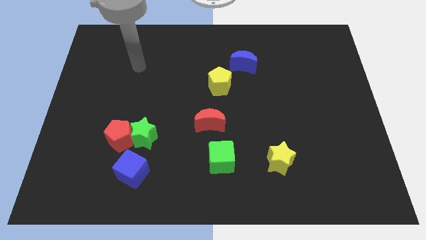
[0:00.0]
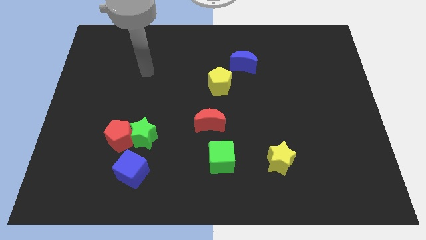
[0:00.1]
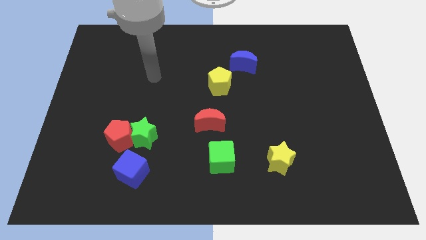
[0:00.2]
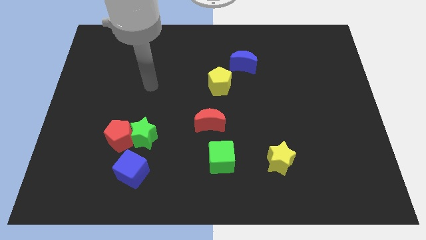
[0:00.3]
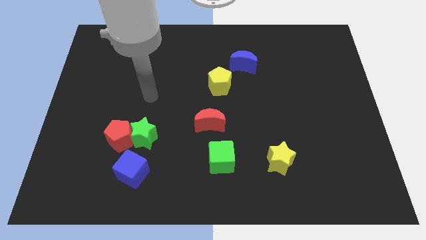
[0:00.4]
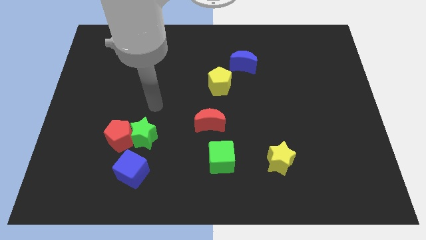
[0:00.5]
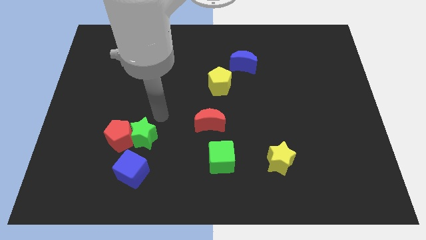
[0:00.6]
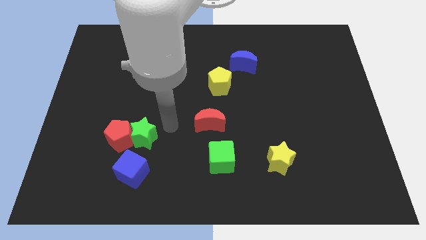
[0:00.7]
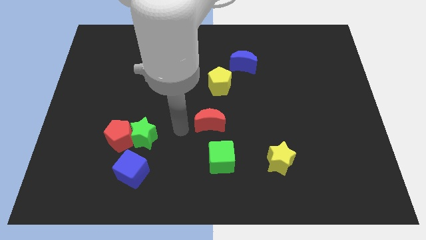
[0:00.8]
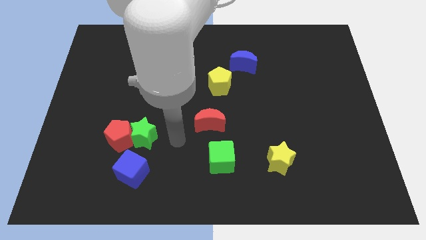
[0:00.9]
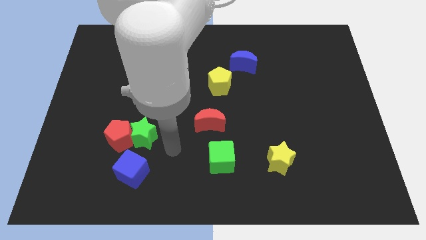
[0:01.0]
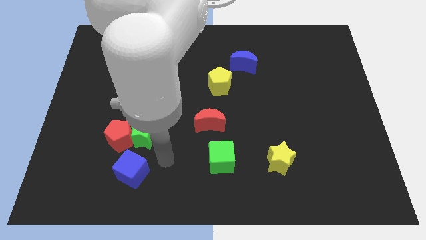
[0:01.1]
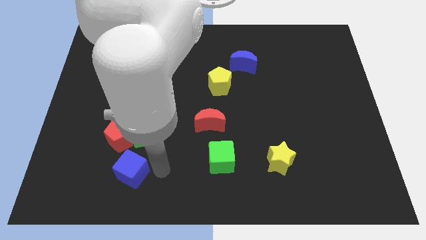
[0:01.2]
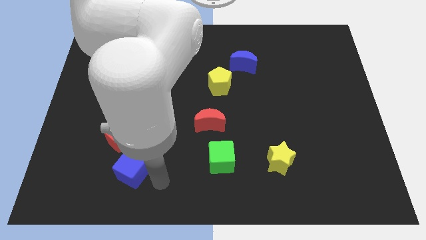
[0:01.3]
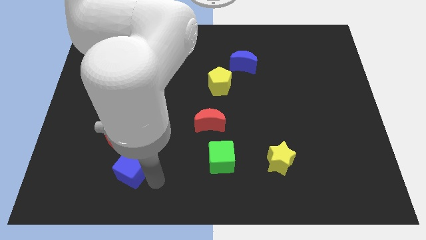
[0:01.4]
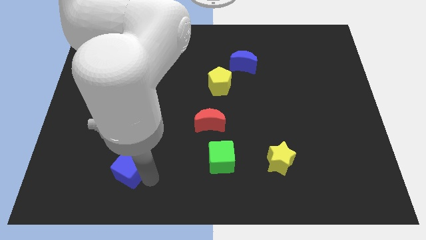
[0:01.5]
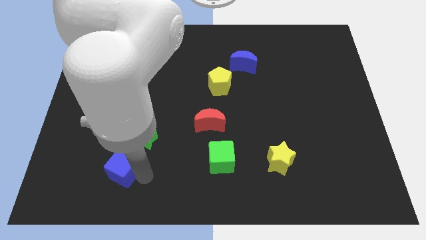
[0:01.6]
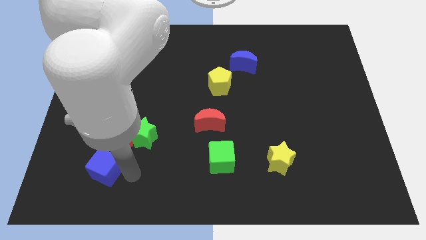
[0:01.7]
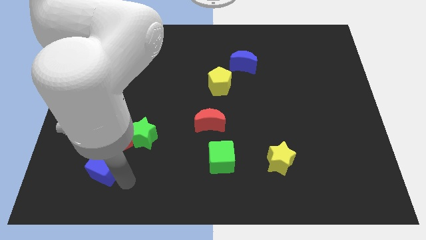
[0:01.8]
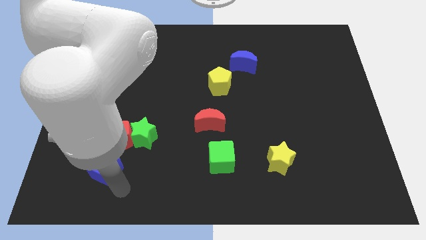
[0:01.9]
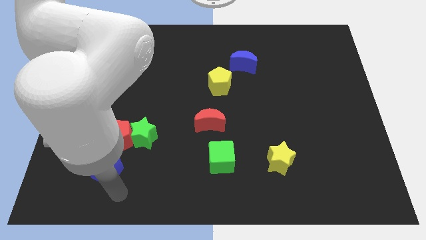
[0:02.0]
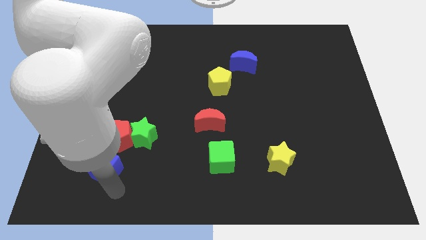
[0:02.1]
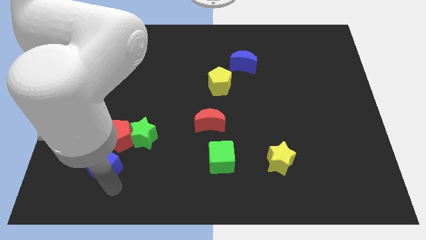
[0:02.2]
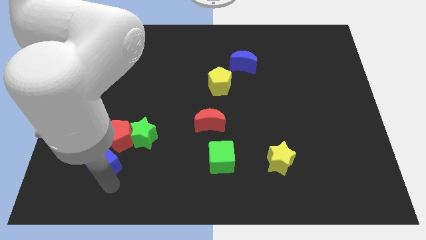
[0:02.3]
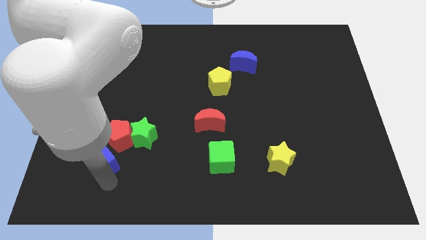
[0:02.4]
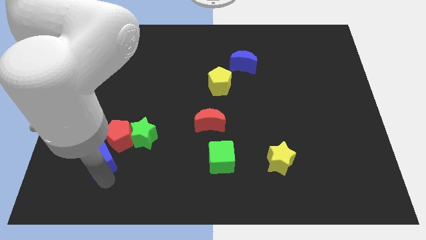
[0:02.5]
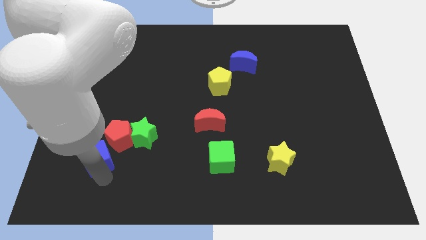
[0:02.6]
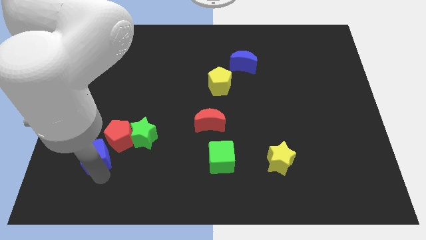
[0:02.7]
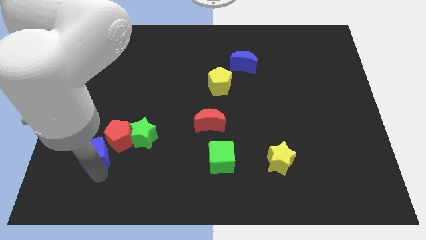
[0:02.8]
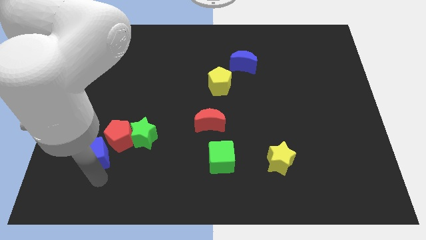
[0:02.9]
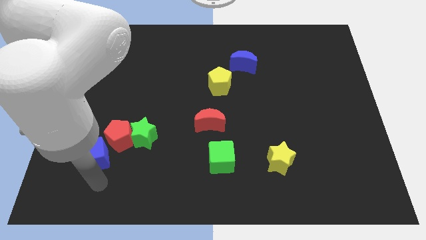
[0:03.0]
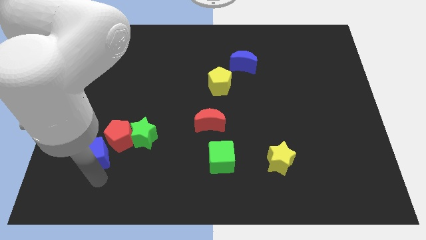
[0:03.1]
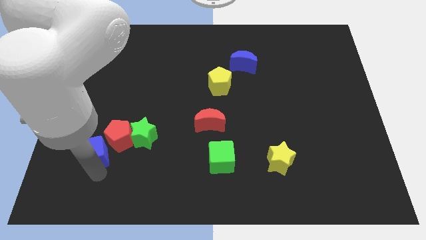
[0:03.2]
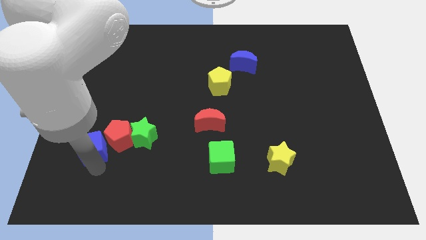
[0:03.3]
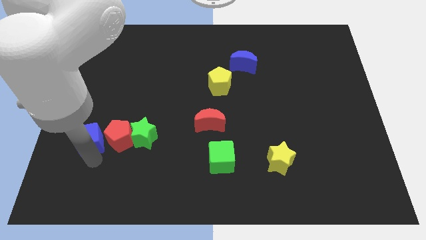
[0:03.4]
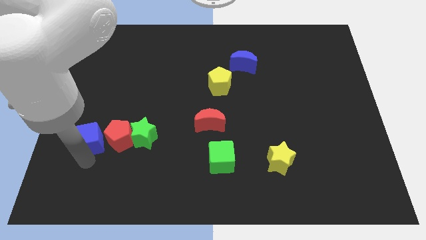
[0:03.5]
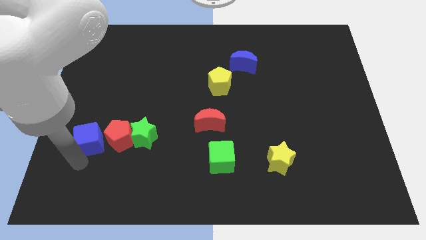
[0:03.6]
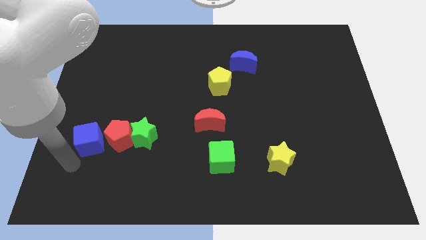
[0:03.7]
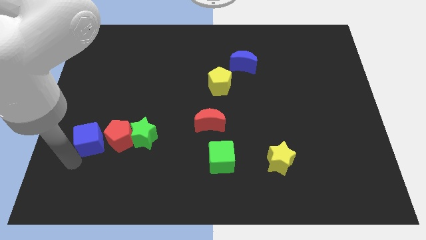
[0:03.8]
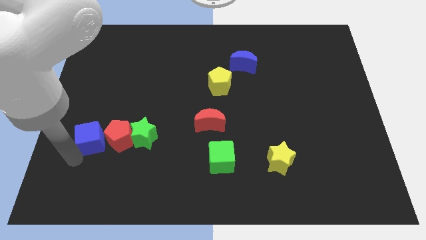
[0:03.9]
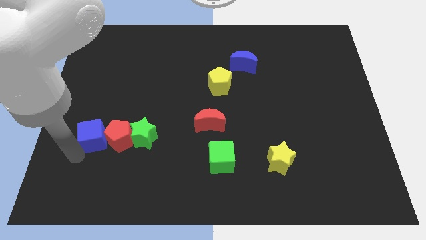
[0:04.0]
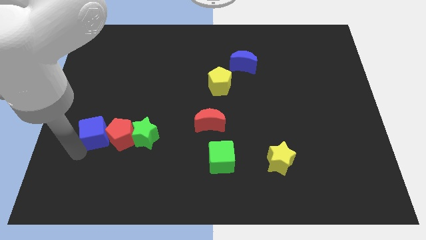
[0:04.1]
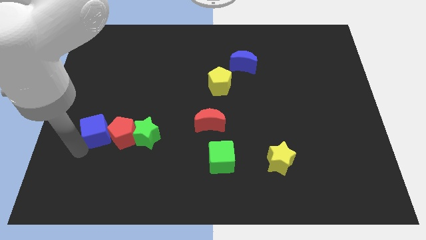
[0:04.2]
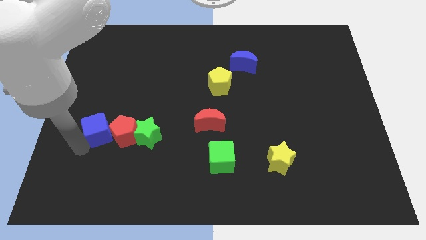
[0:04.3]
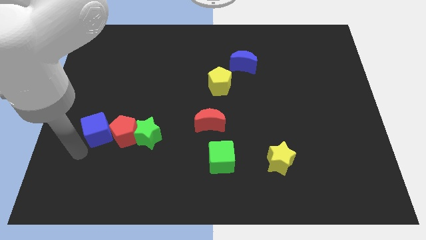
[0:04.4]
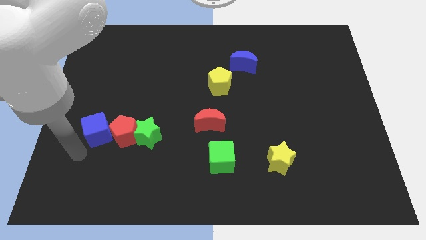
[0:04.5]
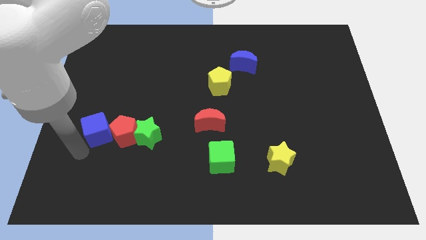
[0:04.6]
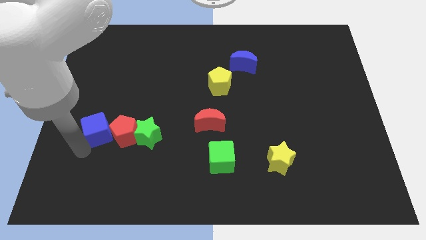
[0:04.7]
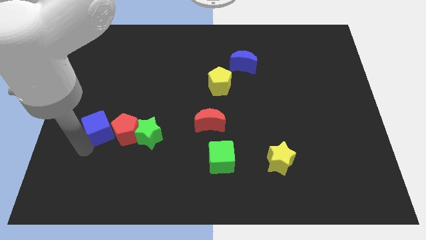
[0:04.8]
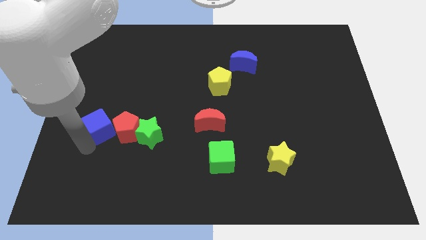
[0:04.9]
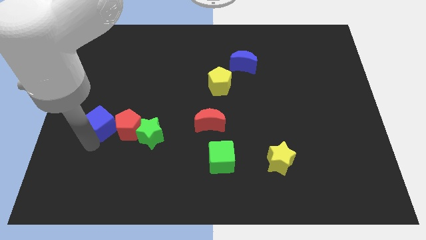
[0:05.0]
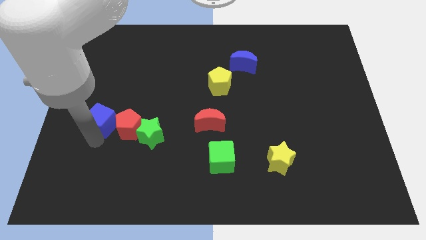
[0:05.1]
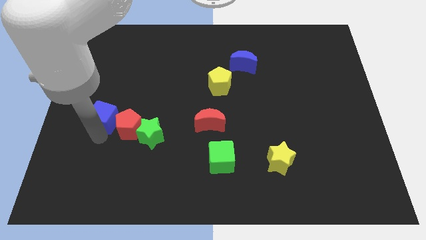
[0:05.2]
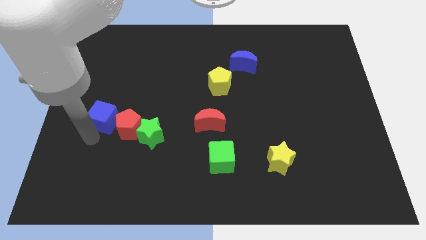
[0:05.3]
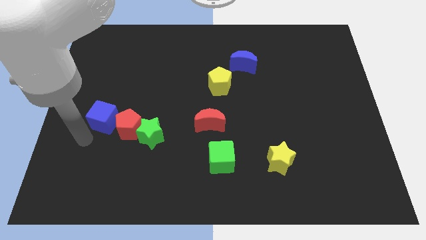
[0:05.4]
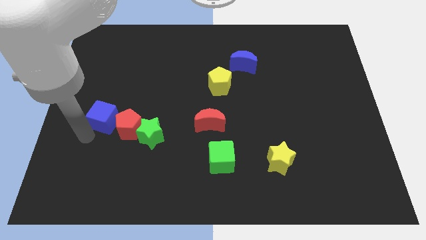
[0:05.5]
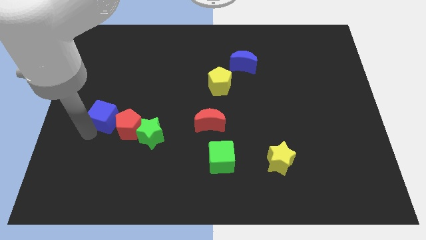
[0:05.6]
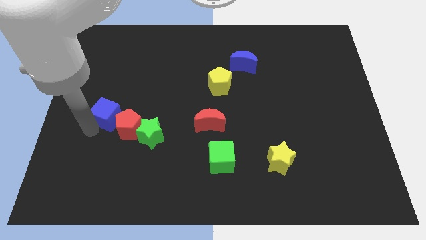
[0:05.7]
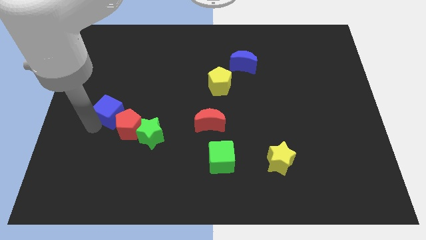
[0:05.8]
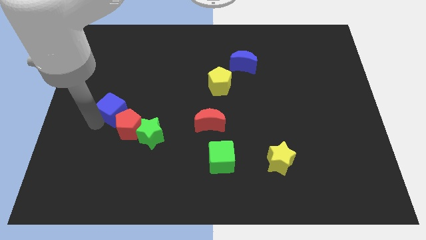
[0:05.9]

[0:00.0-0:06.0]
put the blue cube to the top of the red pentagon
